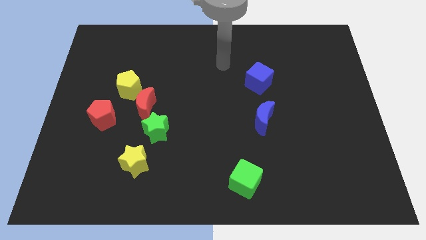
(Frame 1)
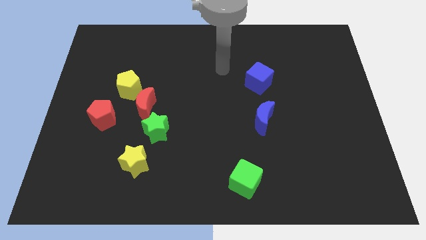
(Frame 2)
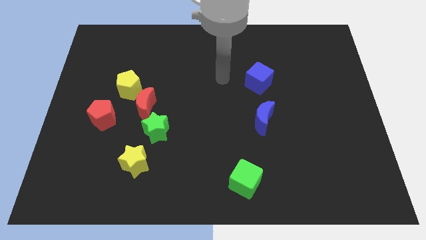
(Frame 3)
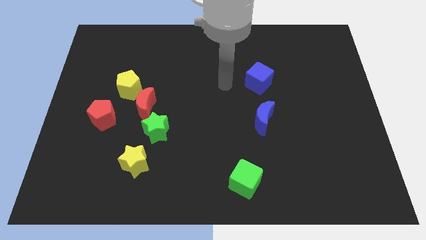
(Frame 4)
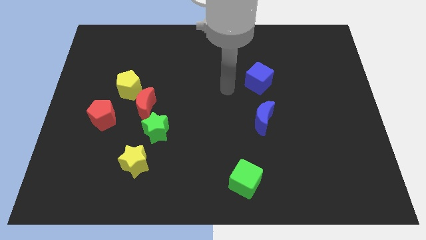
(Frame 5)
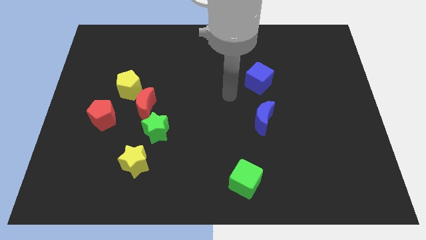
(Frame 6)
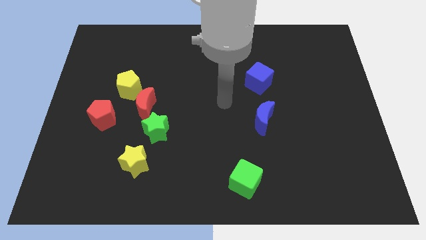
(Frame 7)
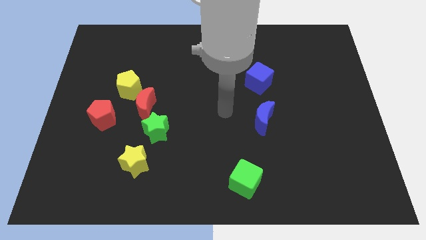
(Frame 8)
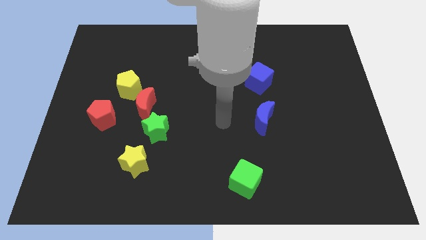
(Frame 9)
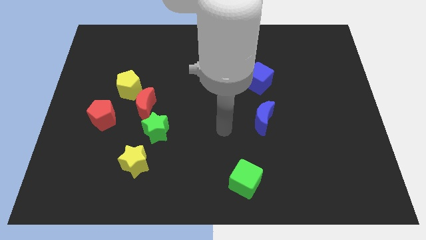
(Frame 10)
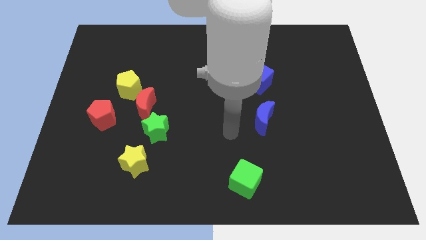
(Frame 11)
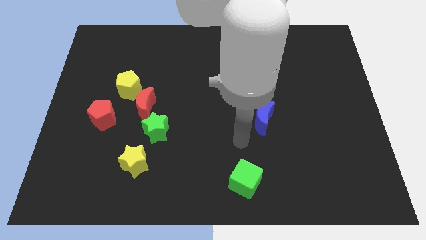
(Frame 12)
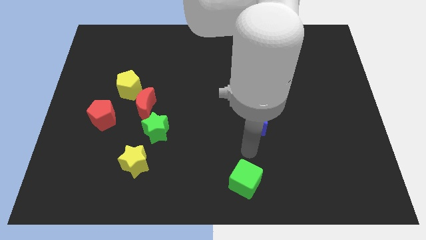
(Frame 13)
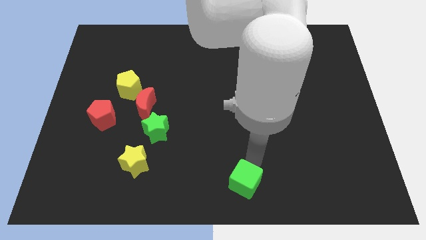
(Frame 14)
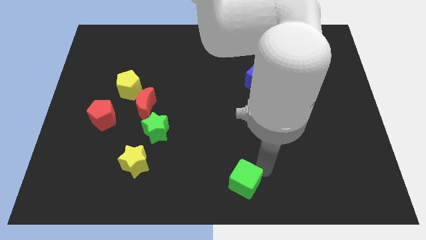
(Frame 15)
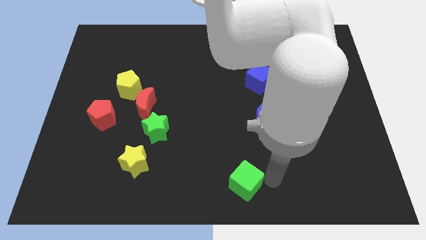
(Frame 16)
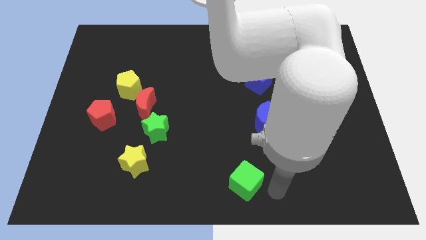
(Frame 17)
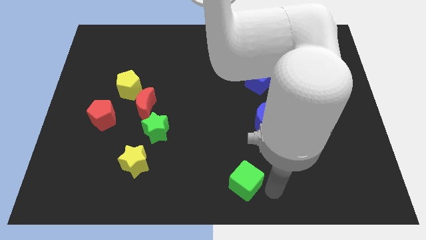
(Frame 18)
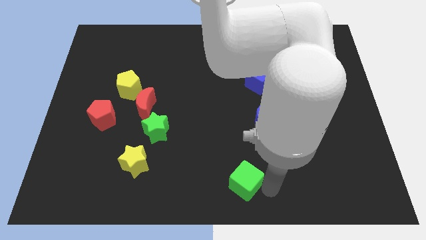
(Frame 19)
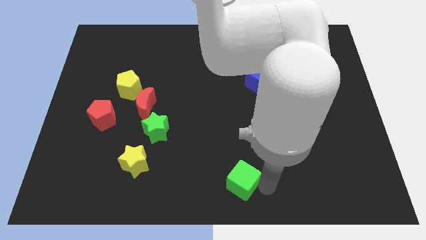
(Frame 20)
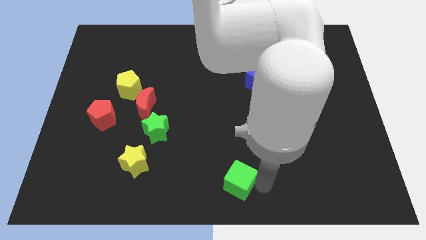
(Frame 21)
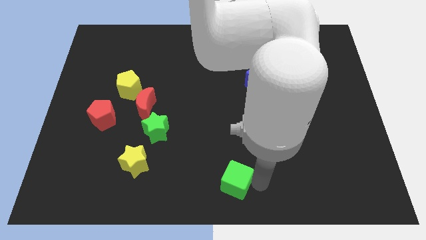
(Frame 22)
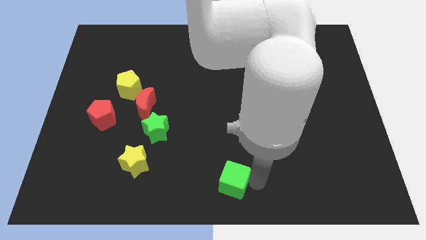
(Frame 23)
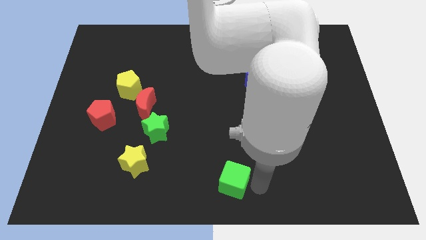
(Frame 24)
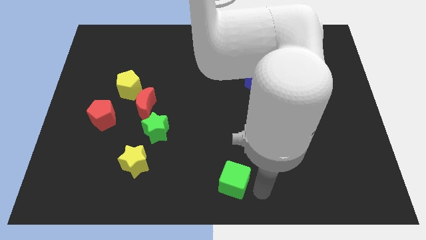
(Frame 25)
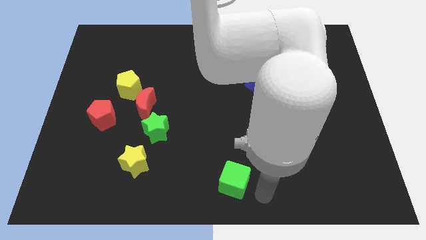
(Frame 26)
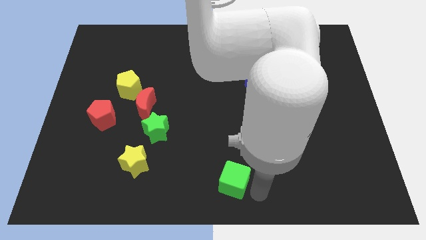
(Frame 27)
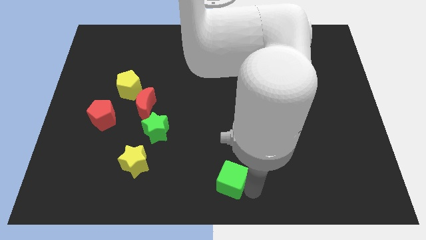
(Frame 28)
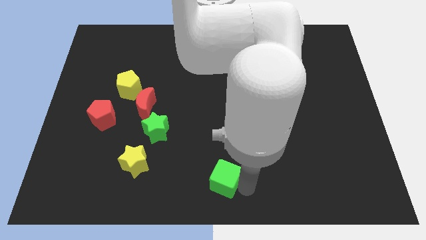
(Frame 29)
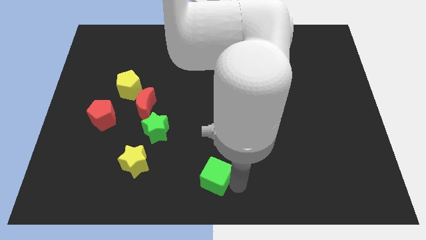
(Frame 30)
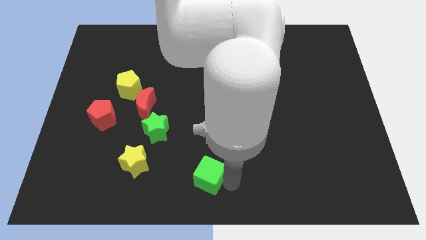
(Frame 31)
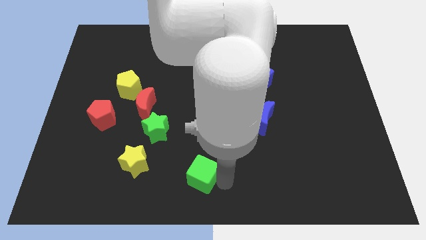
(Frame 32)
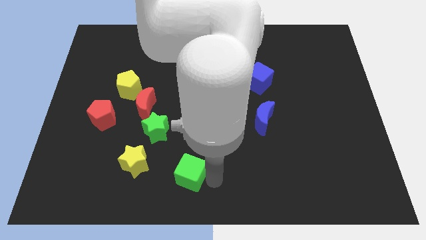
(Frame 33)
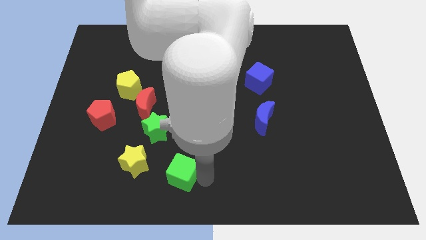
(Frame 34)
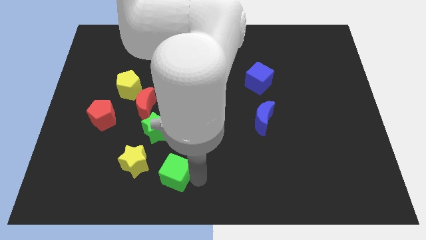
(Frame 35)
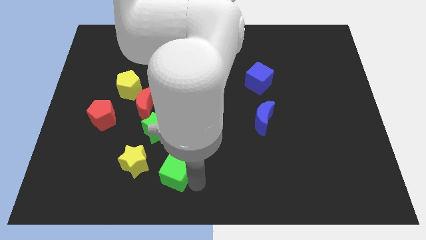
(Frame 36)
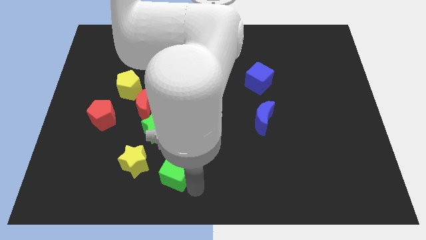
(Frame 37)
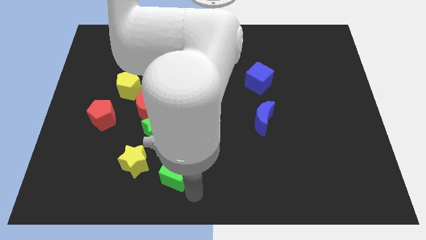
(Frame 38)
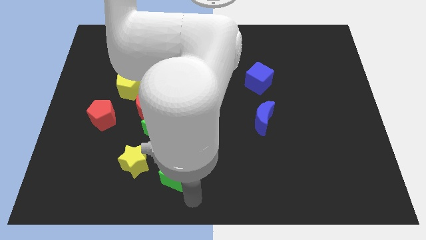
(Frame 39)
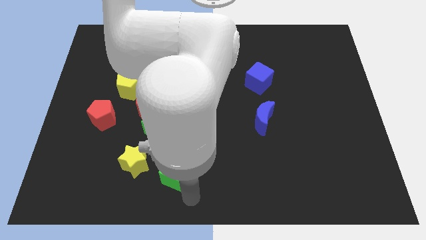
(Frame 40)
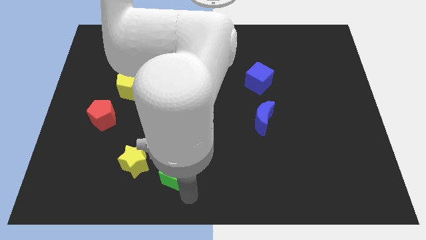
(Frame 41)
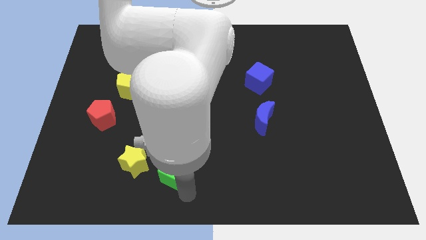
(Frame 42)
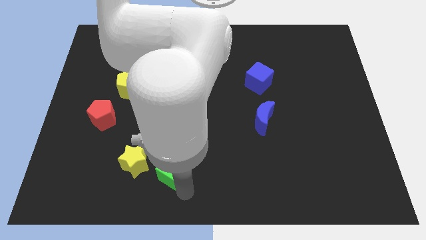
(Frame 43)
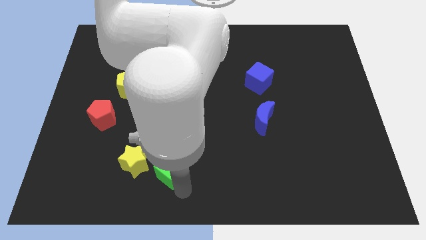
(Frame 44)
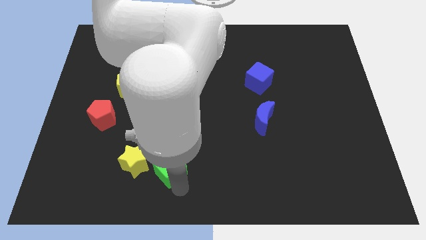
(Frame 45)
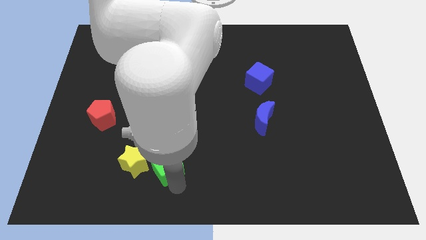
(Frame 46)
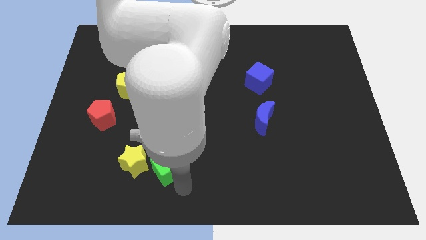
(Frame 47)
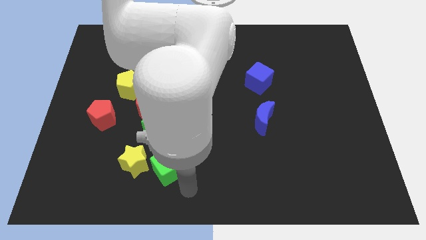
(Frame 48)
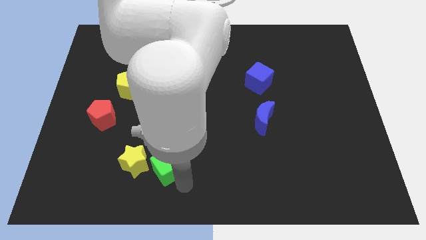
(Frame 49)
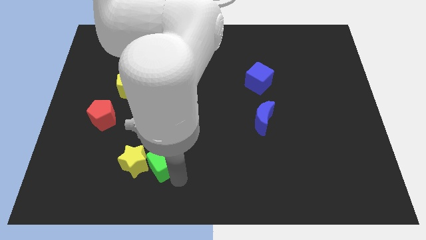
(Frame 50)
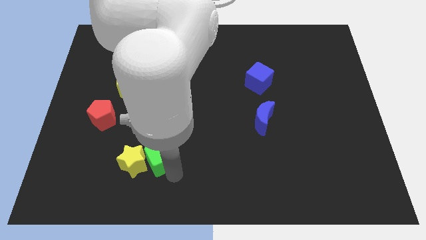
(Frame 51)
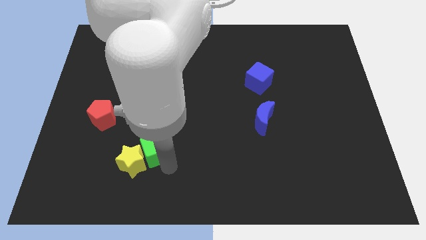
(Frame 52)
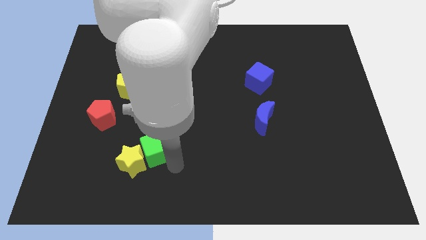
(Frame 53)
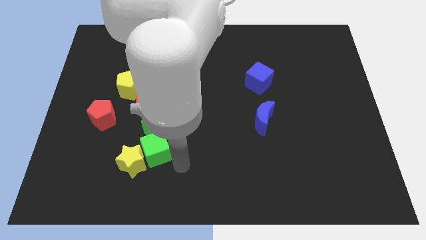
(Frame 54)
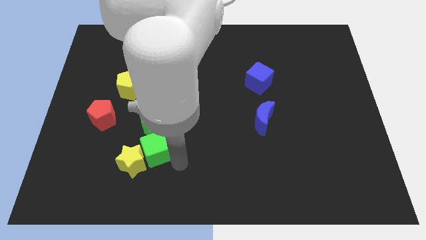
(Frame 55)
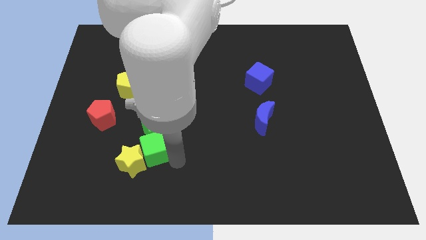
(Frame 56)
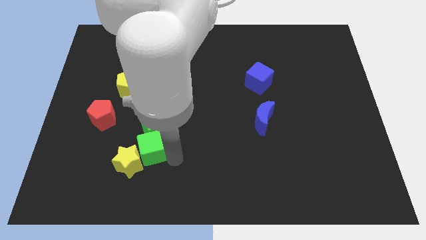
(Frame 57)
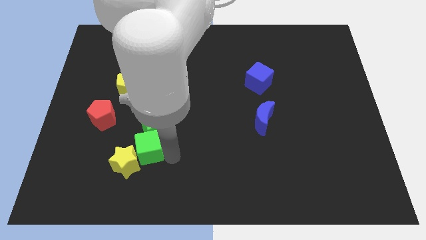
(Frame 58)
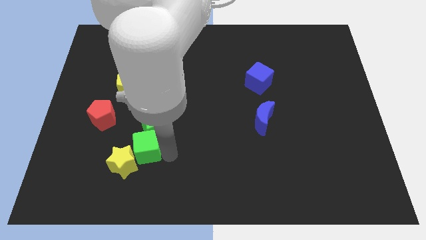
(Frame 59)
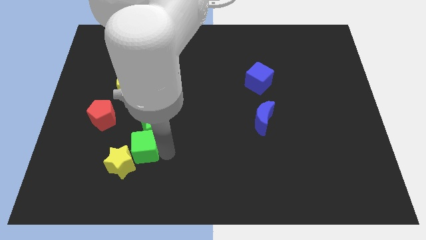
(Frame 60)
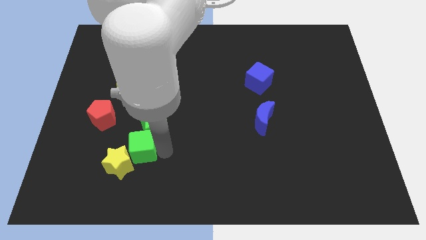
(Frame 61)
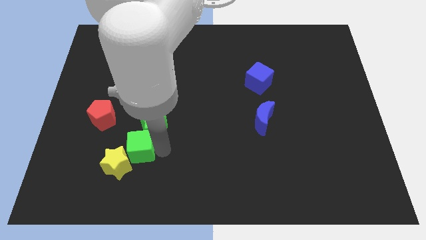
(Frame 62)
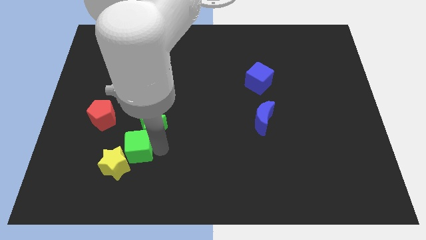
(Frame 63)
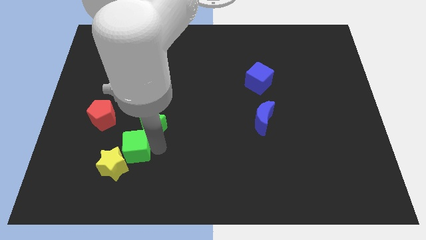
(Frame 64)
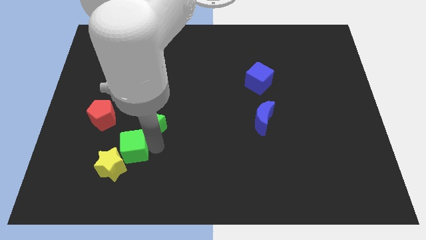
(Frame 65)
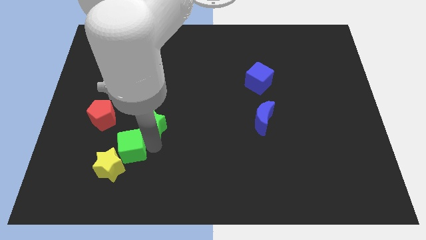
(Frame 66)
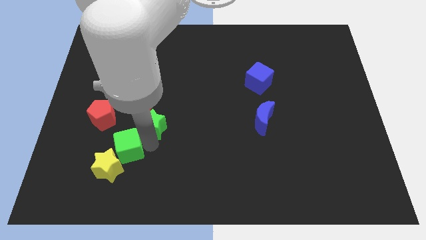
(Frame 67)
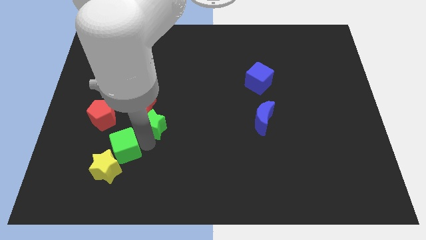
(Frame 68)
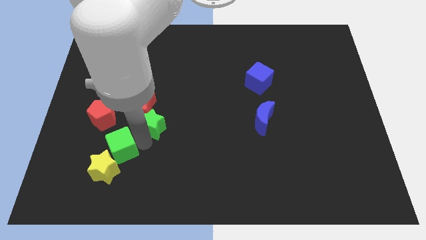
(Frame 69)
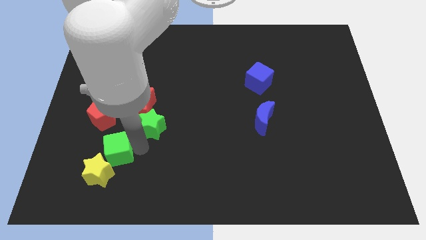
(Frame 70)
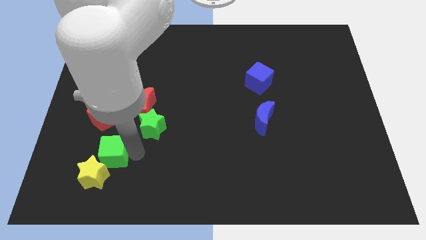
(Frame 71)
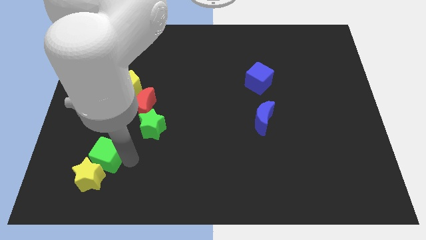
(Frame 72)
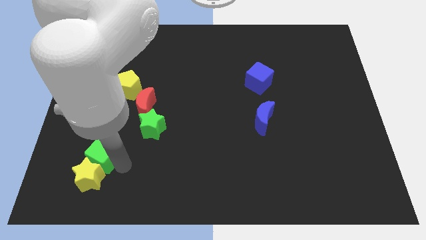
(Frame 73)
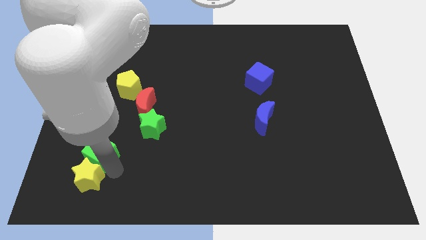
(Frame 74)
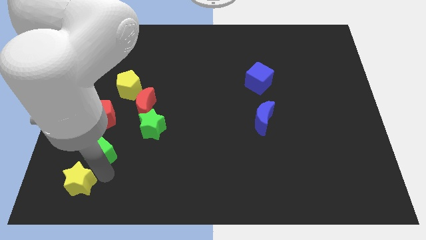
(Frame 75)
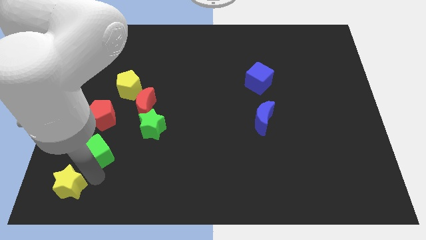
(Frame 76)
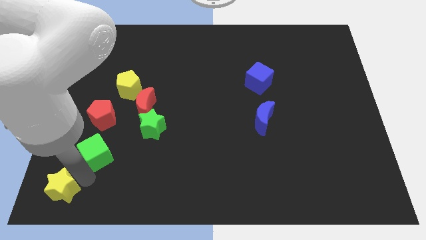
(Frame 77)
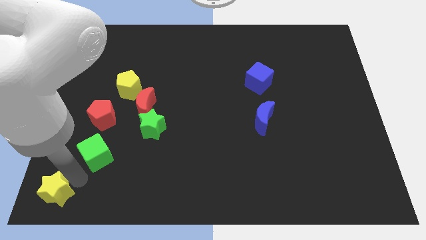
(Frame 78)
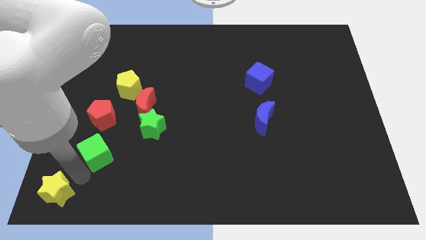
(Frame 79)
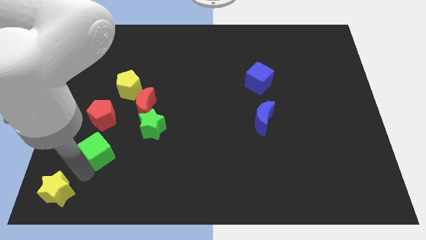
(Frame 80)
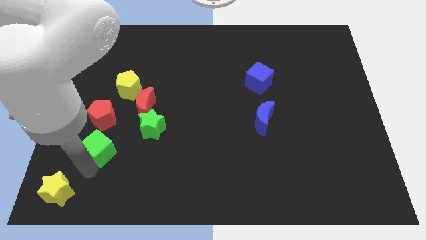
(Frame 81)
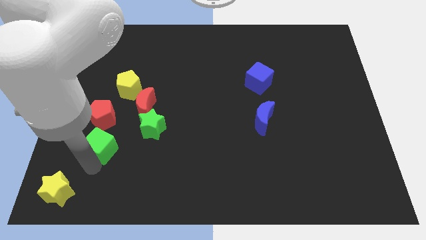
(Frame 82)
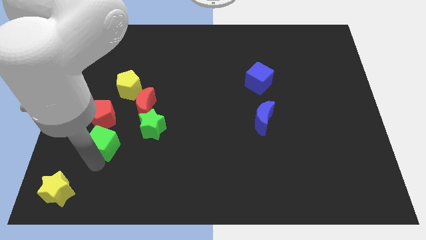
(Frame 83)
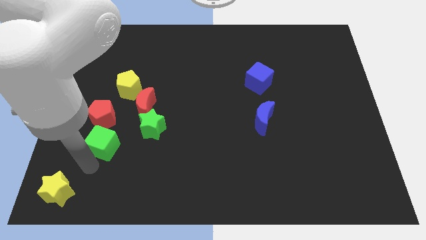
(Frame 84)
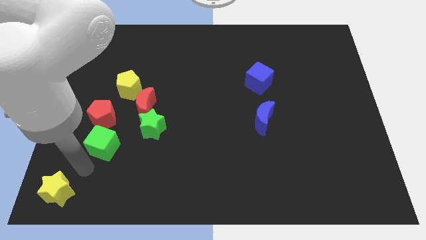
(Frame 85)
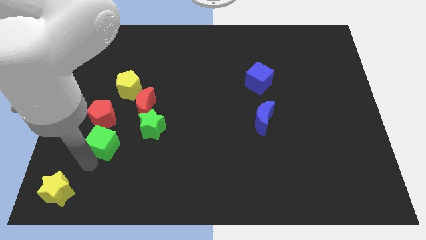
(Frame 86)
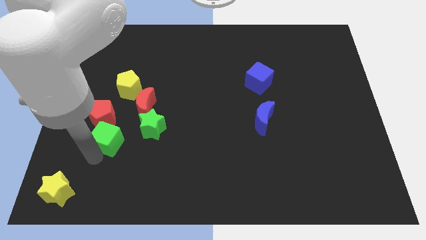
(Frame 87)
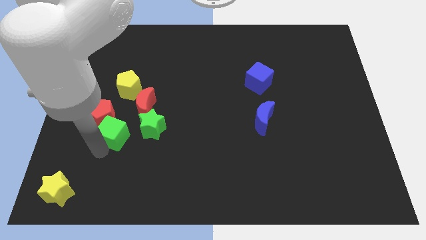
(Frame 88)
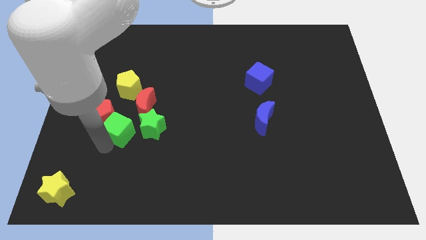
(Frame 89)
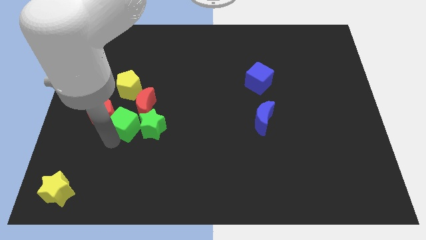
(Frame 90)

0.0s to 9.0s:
slide the green cube to the top left of the green star
